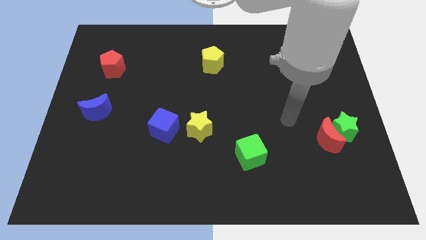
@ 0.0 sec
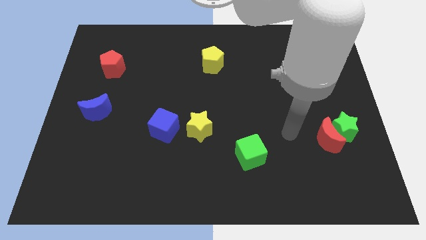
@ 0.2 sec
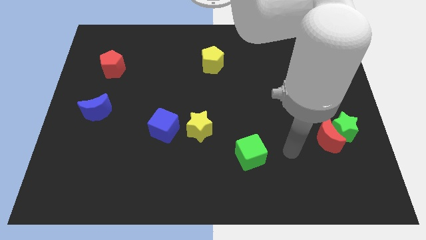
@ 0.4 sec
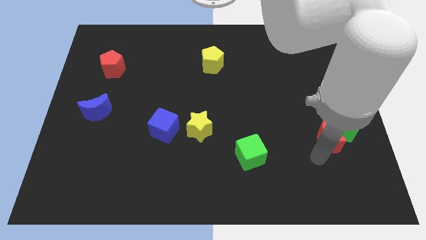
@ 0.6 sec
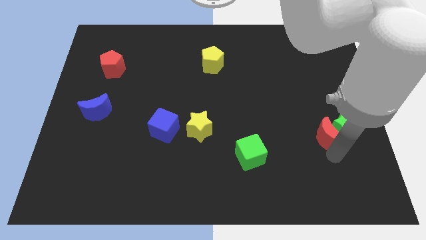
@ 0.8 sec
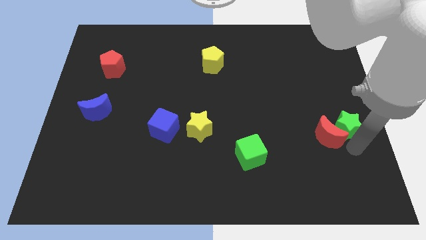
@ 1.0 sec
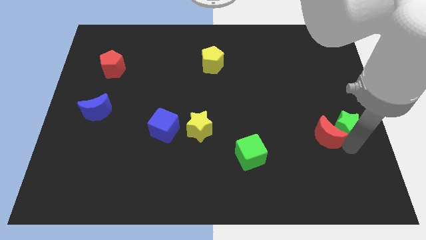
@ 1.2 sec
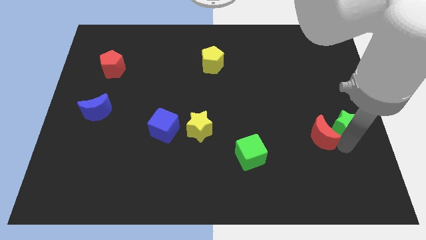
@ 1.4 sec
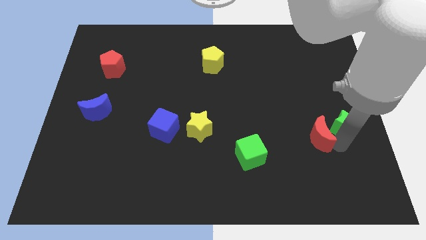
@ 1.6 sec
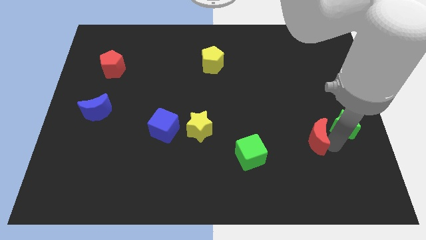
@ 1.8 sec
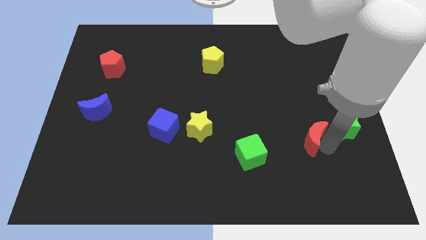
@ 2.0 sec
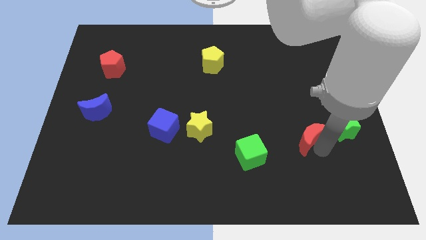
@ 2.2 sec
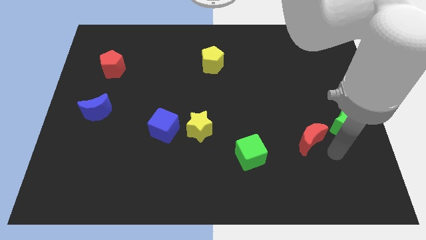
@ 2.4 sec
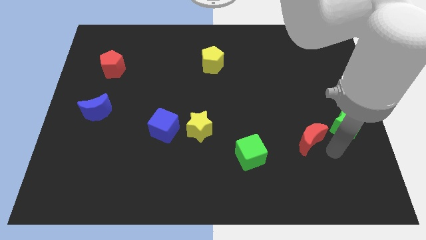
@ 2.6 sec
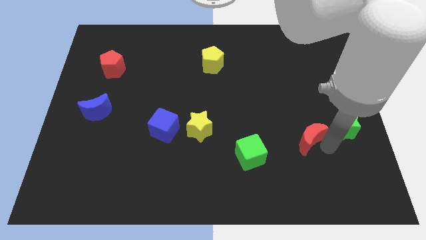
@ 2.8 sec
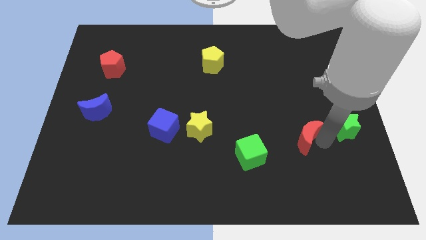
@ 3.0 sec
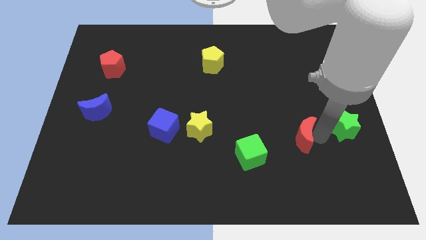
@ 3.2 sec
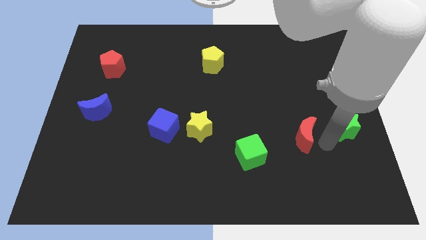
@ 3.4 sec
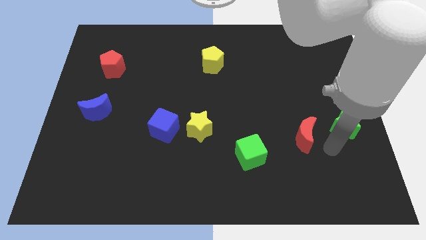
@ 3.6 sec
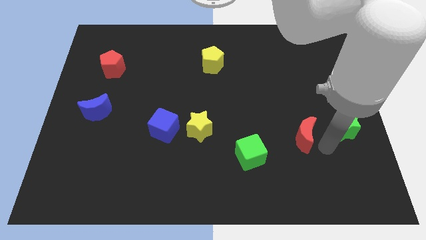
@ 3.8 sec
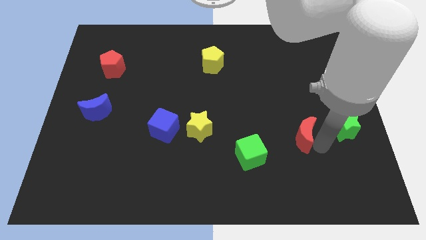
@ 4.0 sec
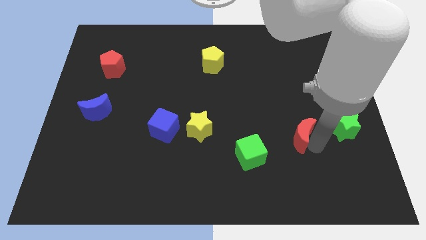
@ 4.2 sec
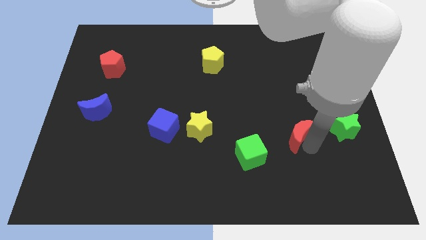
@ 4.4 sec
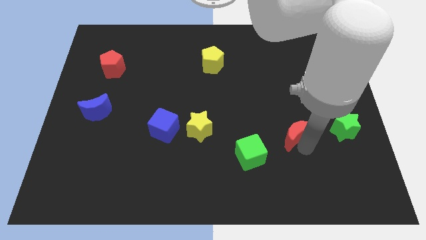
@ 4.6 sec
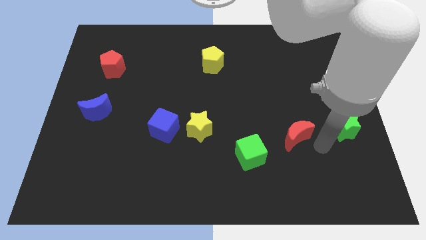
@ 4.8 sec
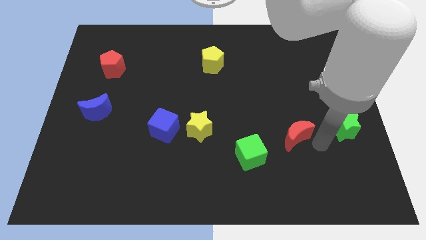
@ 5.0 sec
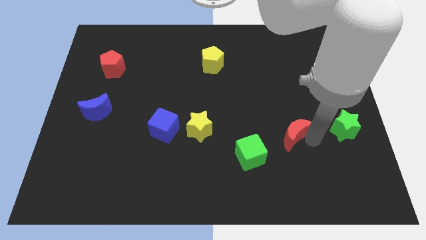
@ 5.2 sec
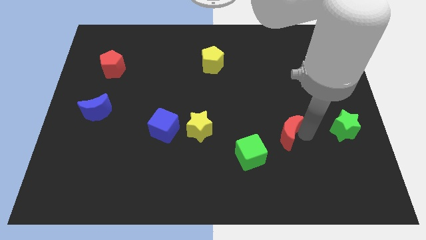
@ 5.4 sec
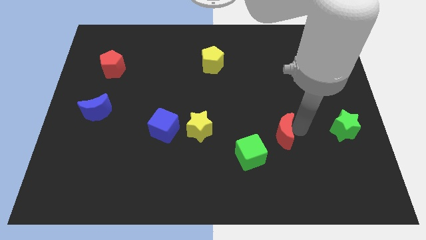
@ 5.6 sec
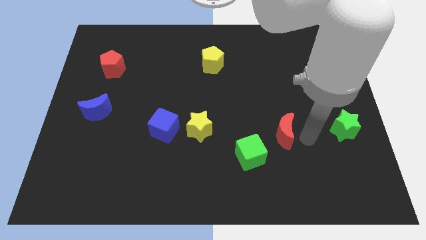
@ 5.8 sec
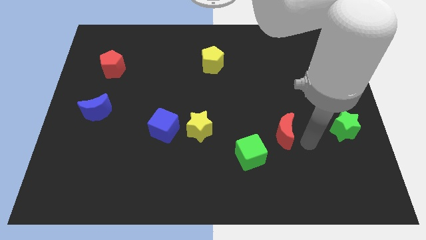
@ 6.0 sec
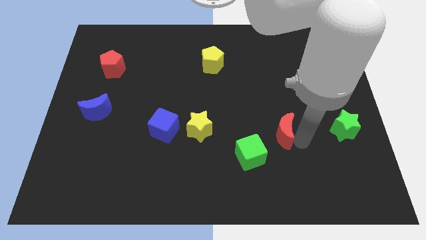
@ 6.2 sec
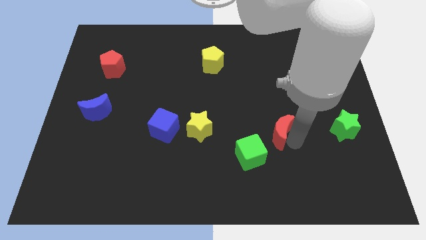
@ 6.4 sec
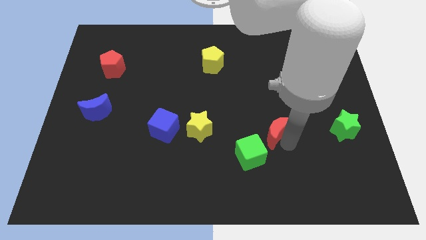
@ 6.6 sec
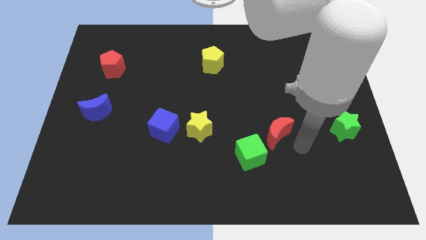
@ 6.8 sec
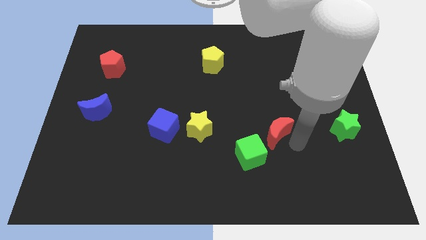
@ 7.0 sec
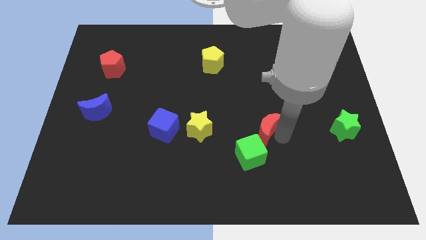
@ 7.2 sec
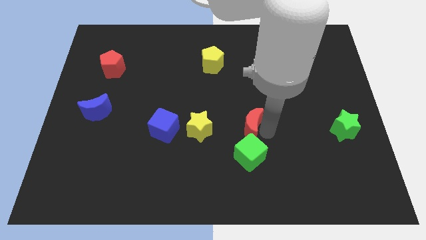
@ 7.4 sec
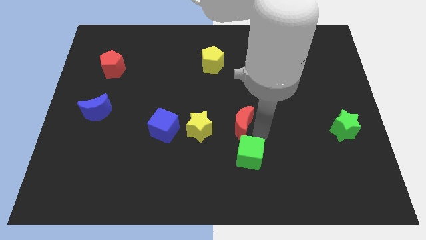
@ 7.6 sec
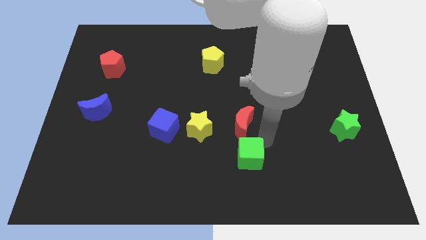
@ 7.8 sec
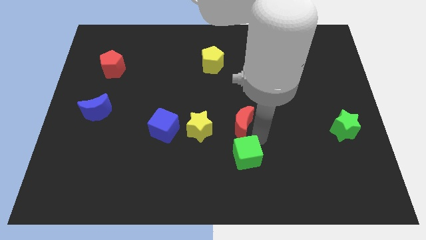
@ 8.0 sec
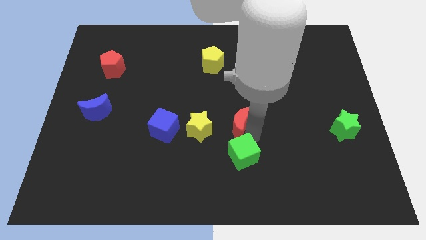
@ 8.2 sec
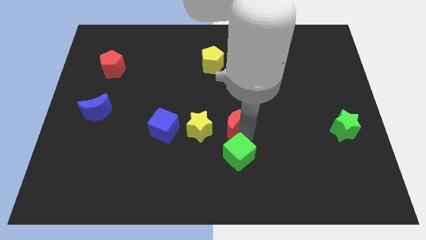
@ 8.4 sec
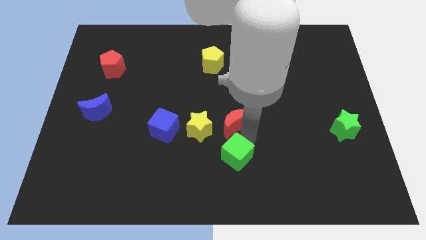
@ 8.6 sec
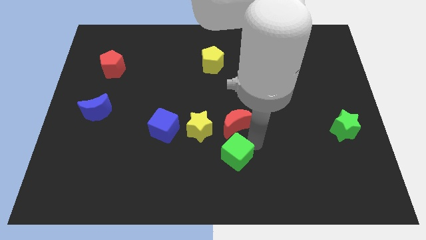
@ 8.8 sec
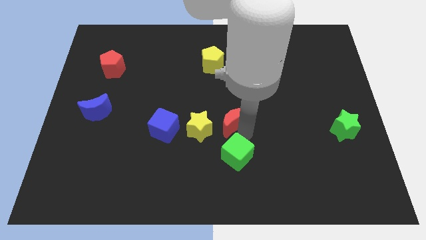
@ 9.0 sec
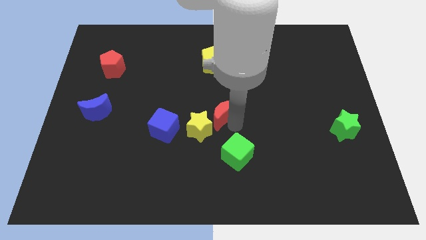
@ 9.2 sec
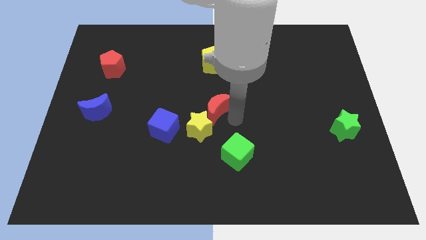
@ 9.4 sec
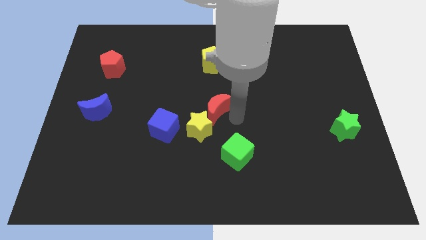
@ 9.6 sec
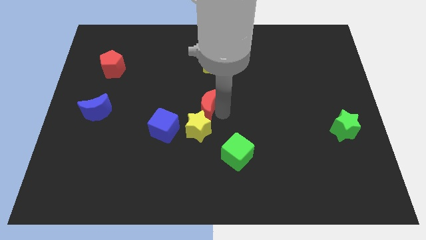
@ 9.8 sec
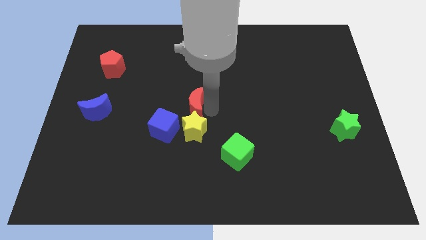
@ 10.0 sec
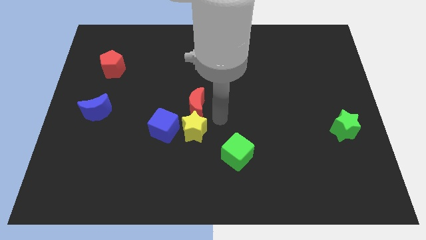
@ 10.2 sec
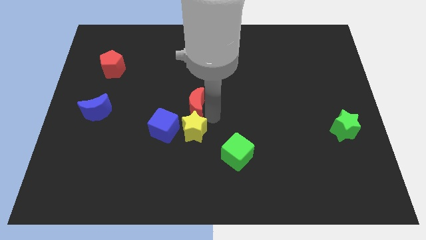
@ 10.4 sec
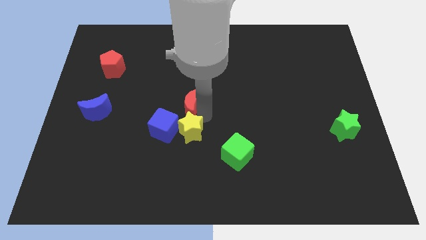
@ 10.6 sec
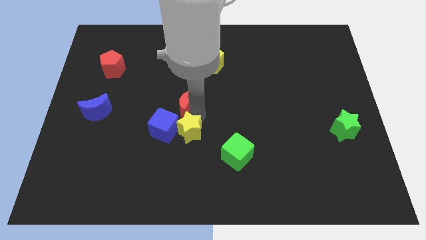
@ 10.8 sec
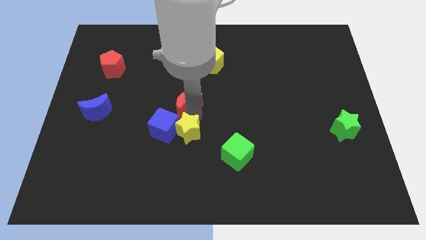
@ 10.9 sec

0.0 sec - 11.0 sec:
put the red moon to the top of the blue cube

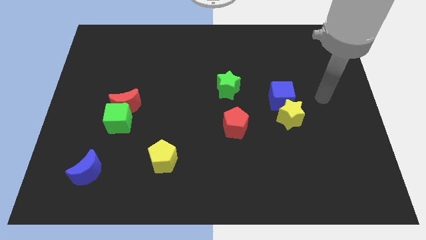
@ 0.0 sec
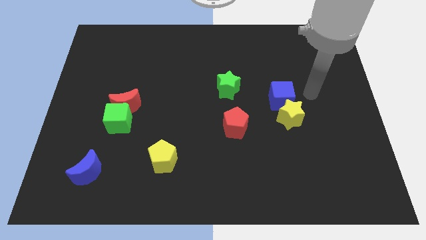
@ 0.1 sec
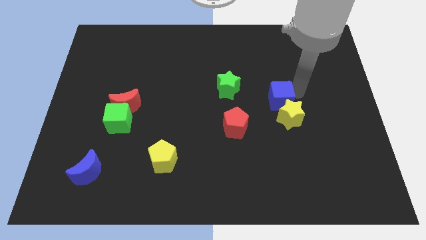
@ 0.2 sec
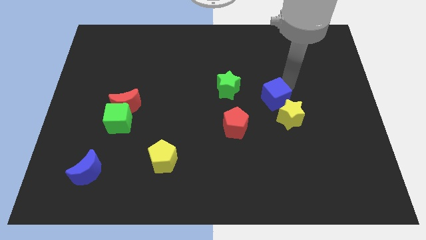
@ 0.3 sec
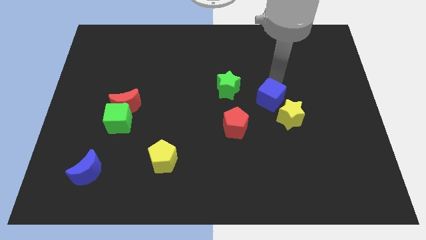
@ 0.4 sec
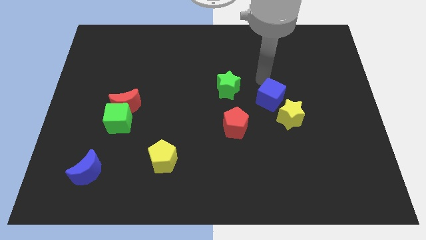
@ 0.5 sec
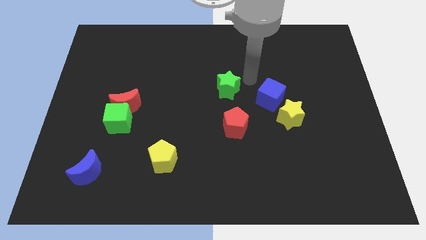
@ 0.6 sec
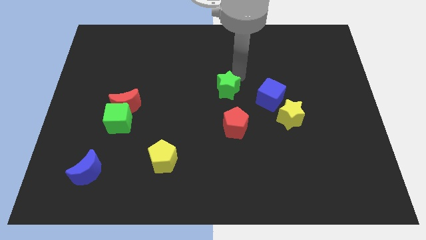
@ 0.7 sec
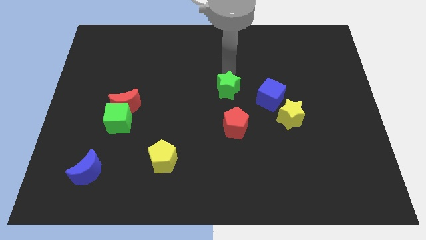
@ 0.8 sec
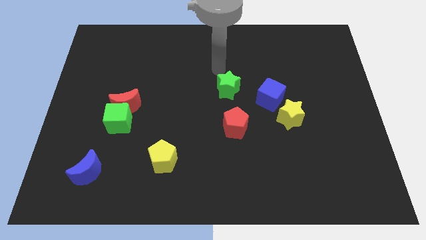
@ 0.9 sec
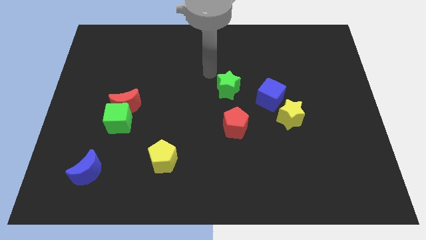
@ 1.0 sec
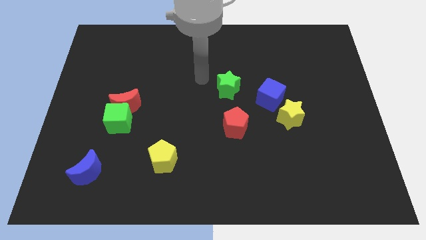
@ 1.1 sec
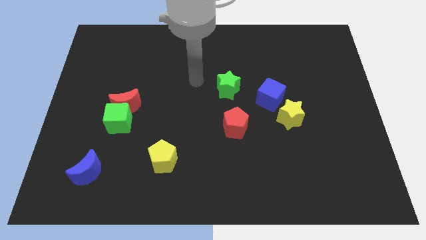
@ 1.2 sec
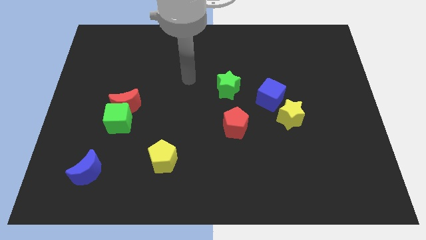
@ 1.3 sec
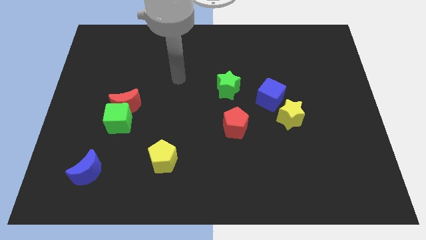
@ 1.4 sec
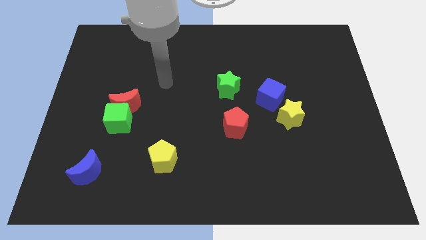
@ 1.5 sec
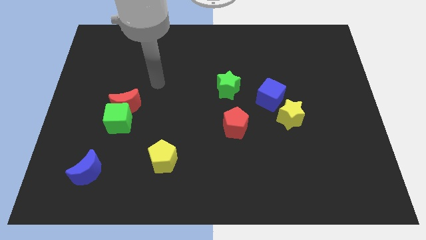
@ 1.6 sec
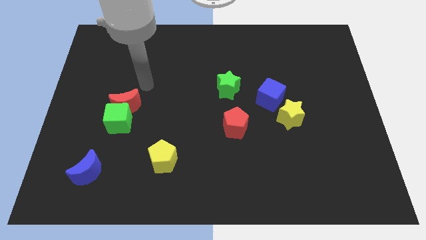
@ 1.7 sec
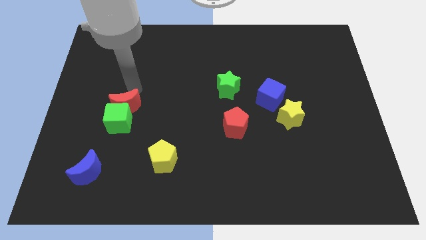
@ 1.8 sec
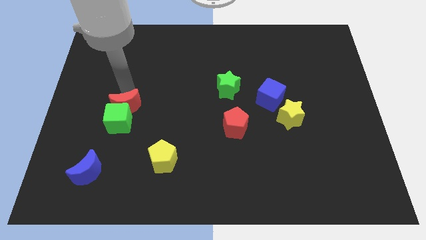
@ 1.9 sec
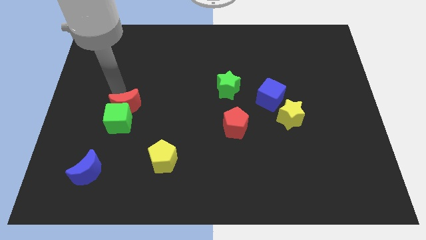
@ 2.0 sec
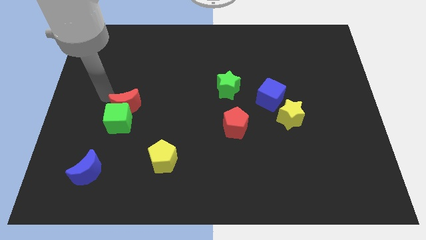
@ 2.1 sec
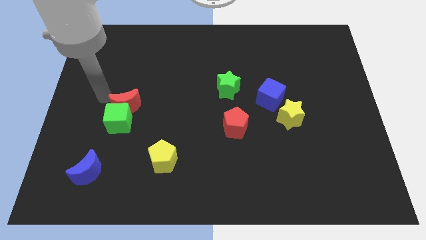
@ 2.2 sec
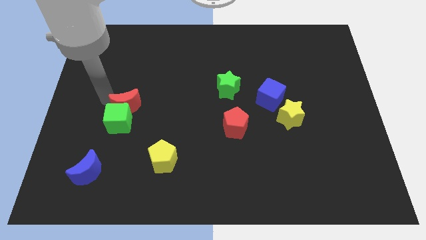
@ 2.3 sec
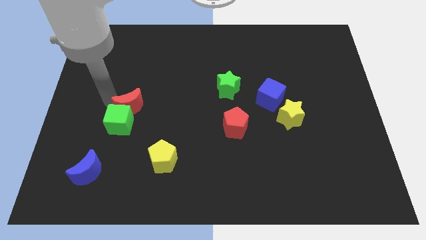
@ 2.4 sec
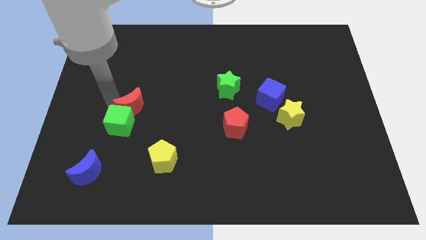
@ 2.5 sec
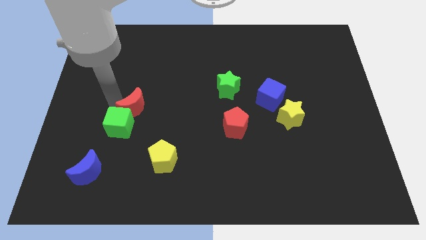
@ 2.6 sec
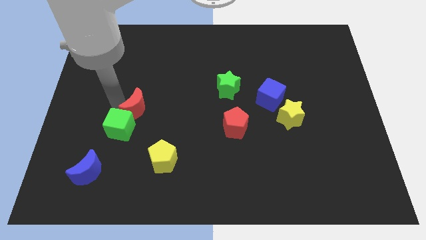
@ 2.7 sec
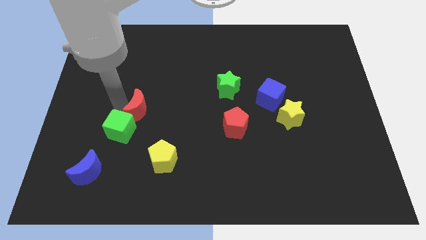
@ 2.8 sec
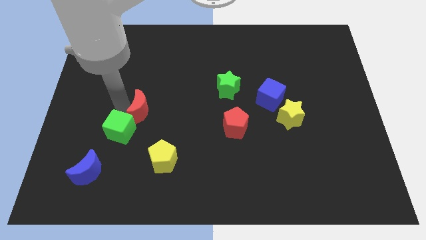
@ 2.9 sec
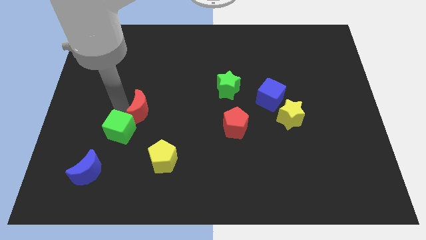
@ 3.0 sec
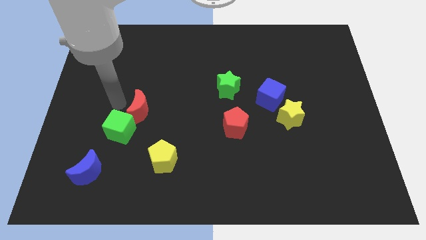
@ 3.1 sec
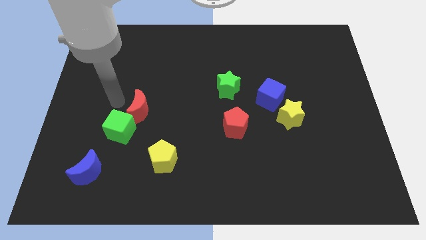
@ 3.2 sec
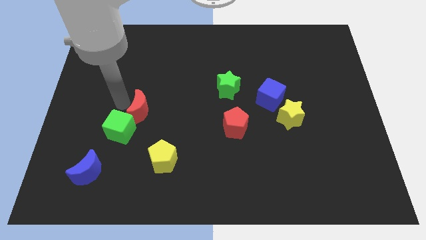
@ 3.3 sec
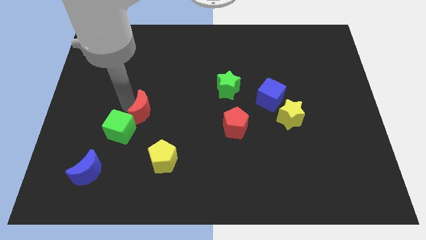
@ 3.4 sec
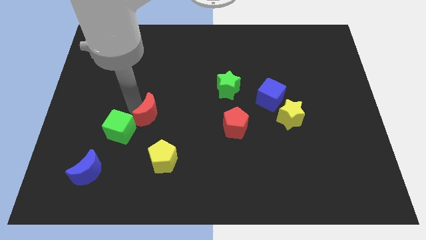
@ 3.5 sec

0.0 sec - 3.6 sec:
move the red moon to the top side of the yellow pentagon
